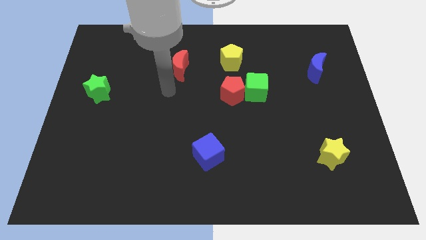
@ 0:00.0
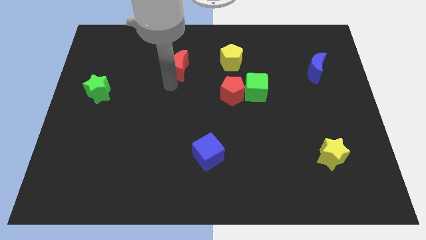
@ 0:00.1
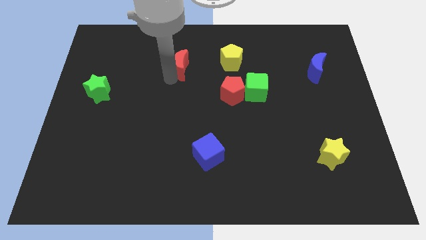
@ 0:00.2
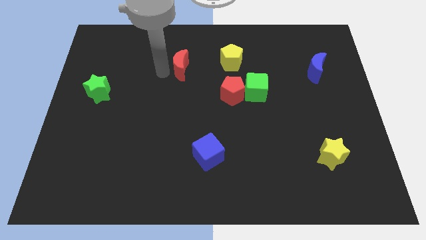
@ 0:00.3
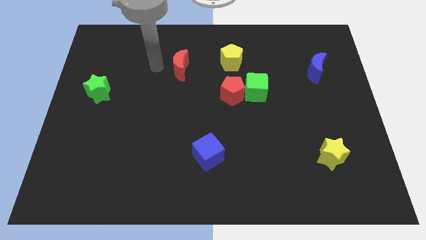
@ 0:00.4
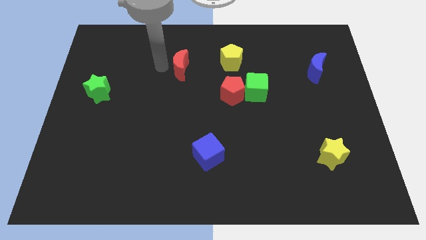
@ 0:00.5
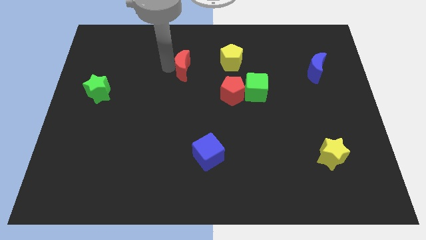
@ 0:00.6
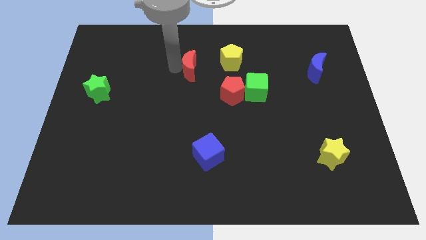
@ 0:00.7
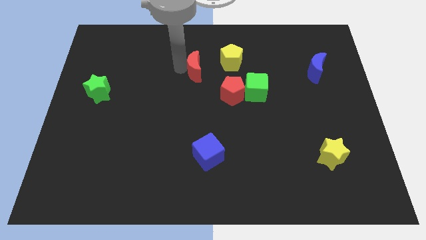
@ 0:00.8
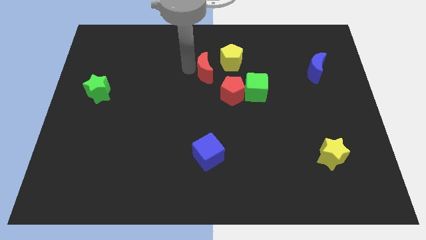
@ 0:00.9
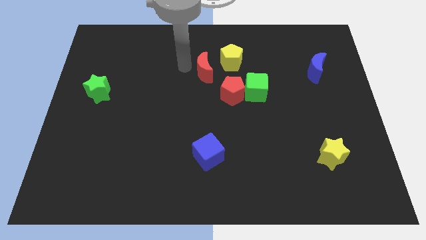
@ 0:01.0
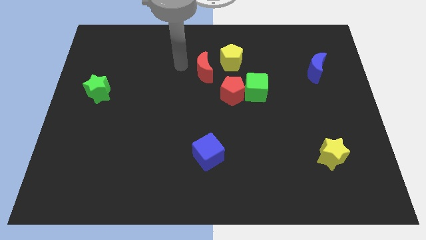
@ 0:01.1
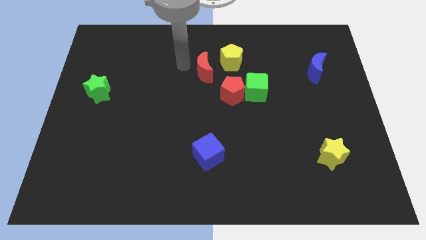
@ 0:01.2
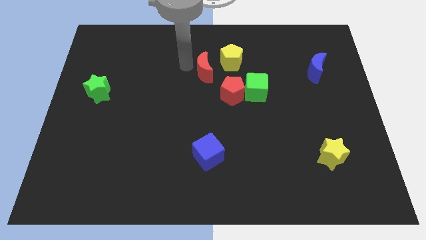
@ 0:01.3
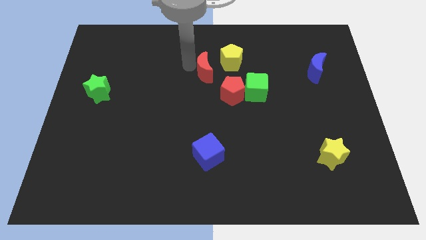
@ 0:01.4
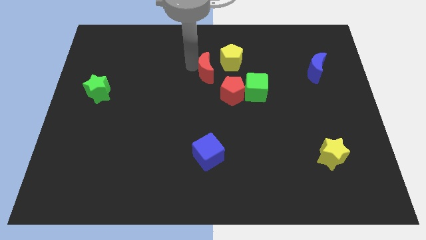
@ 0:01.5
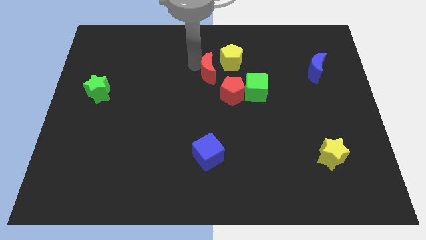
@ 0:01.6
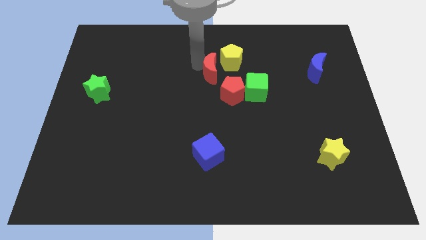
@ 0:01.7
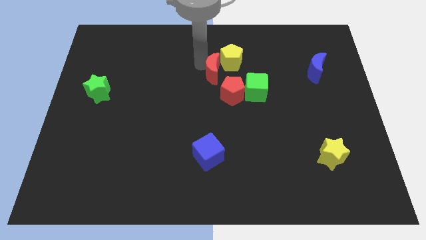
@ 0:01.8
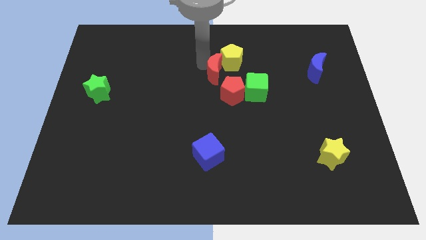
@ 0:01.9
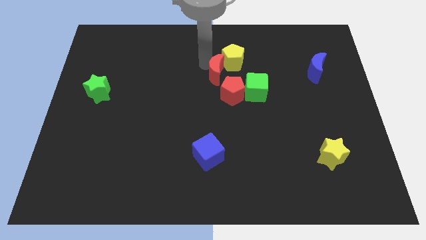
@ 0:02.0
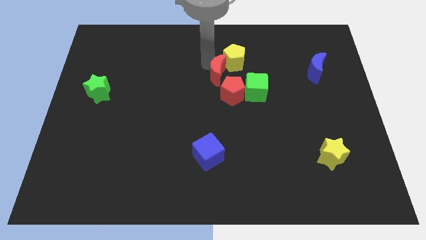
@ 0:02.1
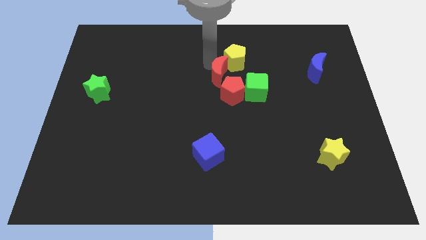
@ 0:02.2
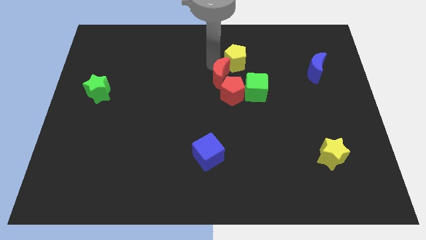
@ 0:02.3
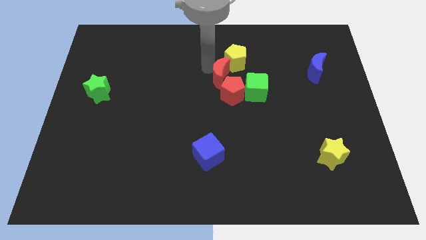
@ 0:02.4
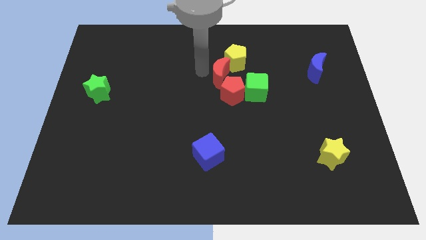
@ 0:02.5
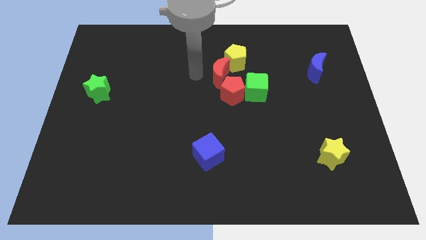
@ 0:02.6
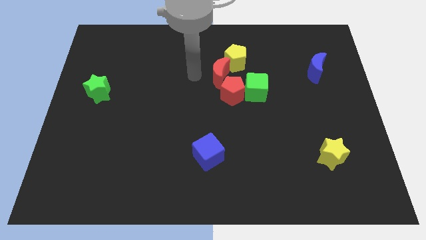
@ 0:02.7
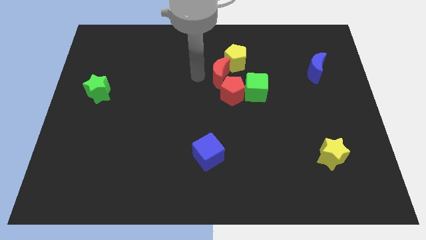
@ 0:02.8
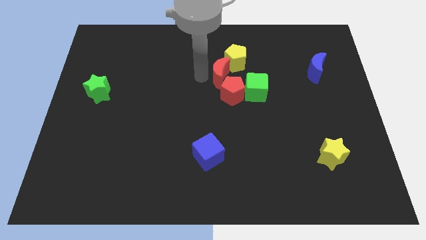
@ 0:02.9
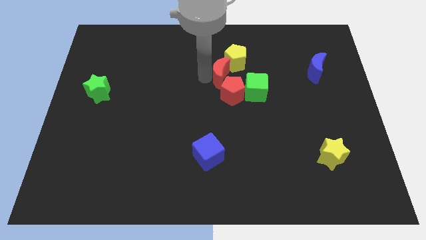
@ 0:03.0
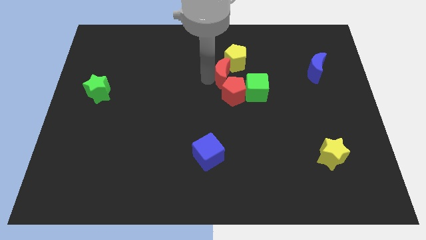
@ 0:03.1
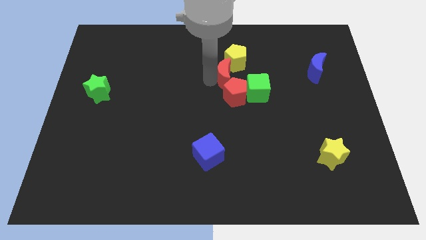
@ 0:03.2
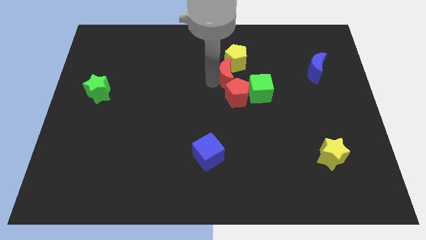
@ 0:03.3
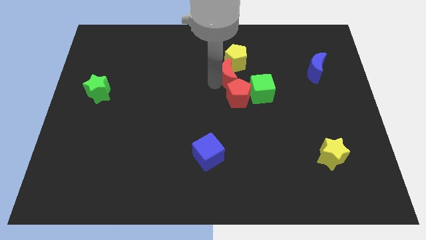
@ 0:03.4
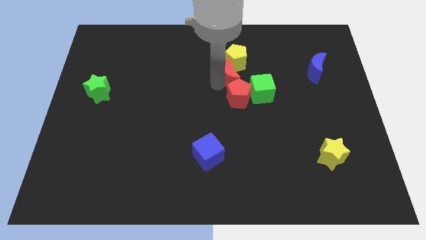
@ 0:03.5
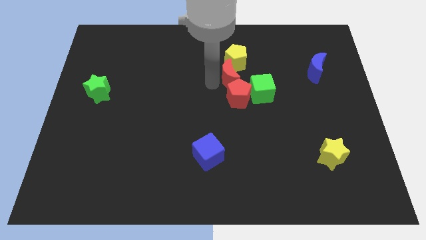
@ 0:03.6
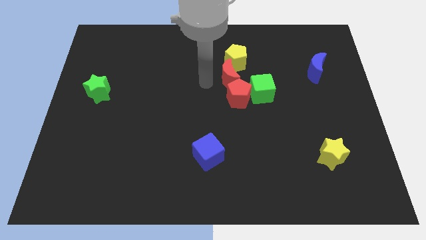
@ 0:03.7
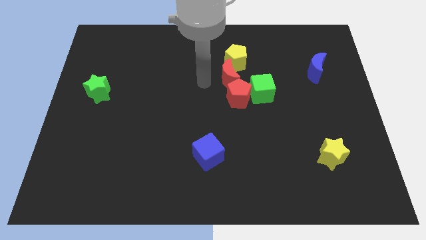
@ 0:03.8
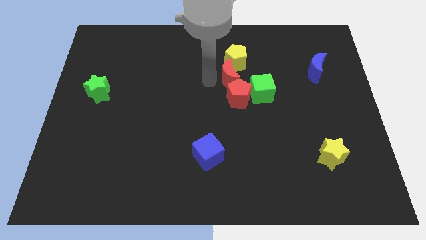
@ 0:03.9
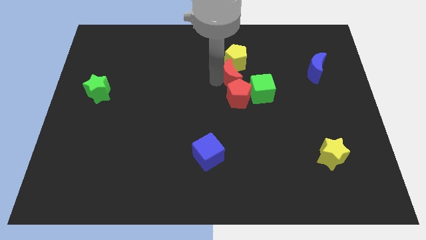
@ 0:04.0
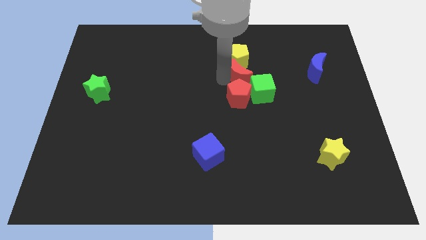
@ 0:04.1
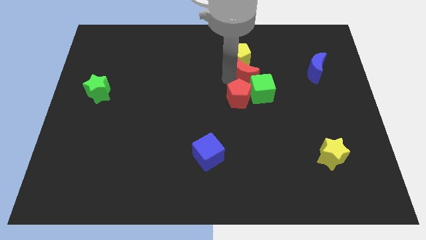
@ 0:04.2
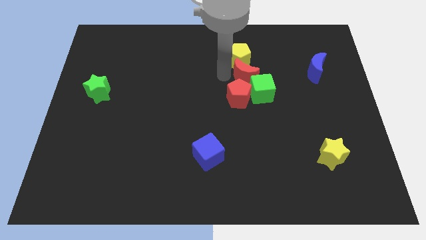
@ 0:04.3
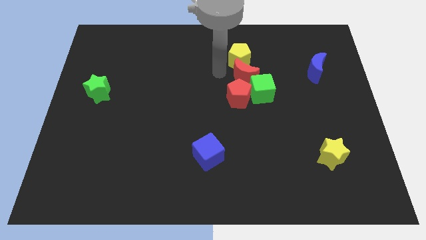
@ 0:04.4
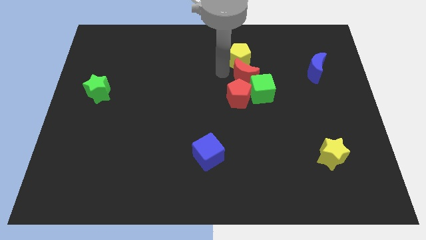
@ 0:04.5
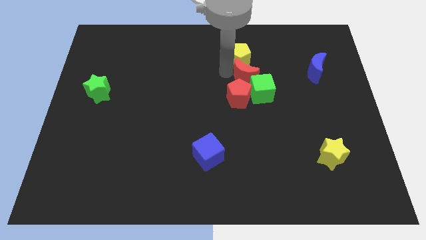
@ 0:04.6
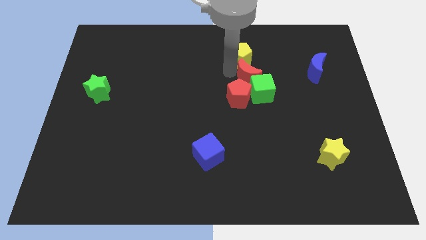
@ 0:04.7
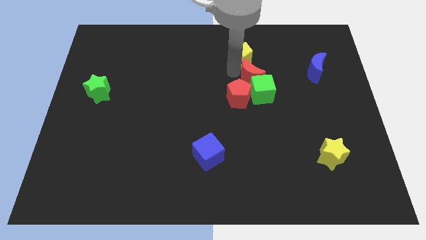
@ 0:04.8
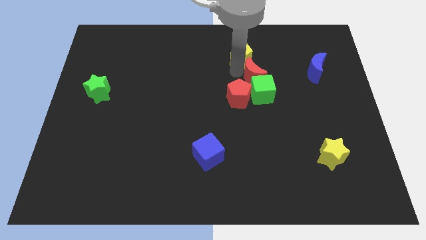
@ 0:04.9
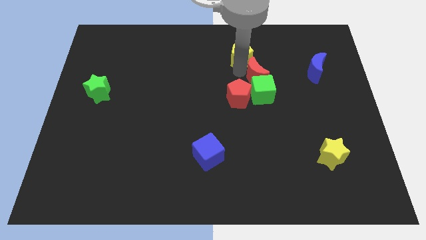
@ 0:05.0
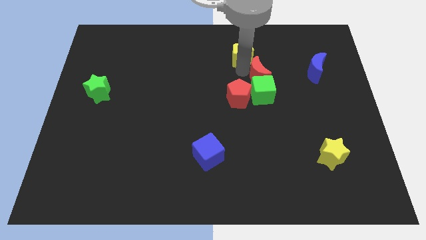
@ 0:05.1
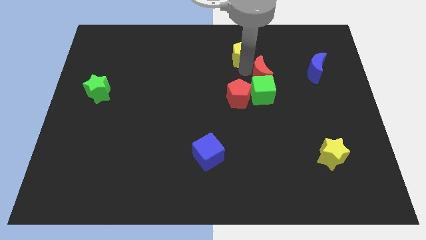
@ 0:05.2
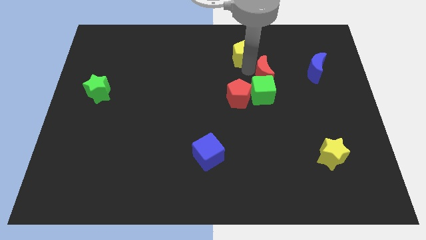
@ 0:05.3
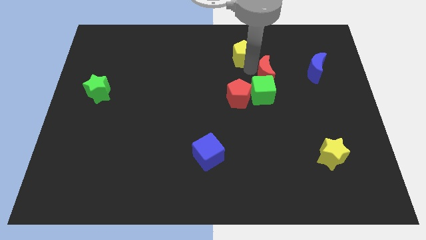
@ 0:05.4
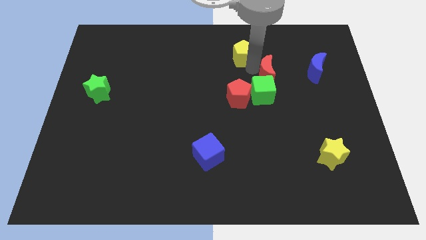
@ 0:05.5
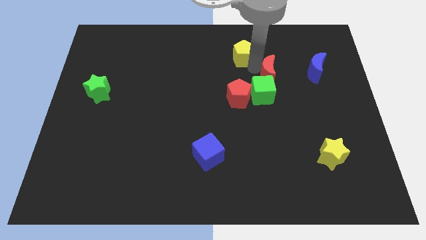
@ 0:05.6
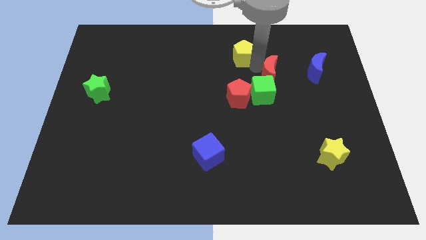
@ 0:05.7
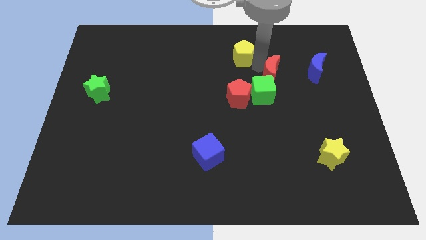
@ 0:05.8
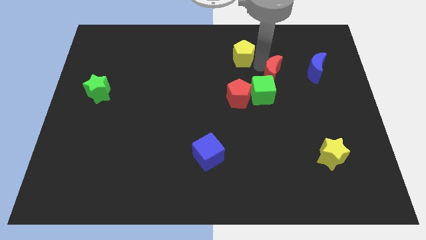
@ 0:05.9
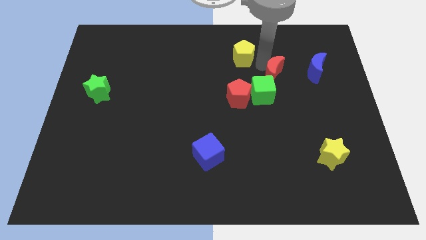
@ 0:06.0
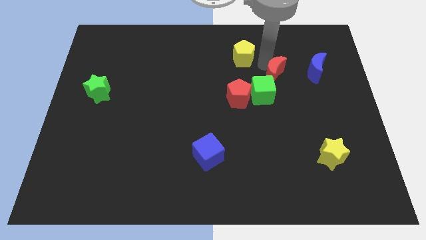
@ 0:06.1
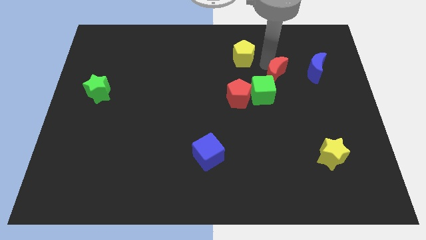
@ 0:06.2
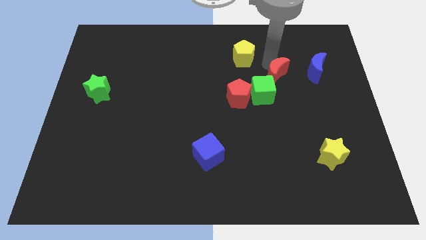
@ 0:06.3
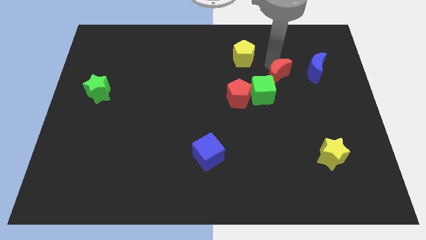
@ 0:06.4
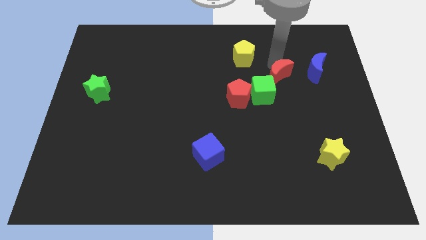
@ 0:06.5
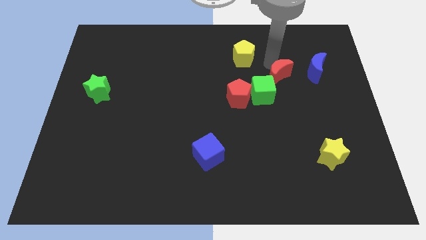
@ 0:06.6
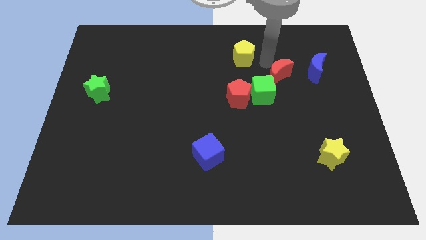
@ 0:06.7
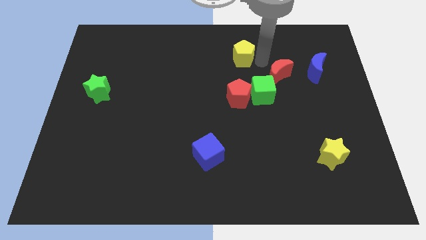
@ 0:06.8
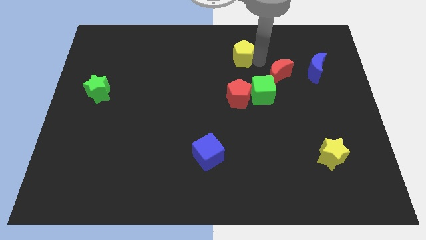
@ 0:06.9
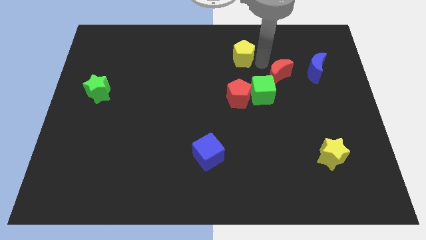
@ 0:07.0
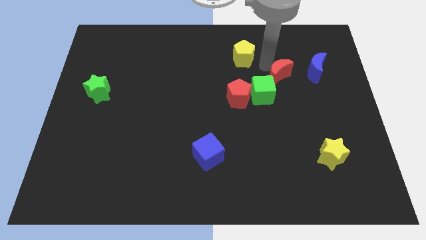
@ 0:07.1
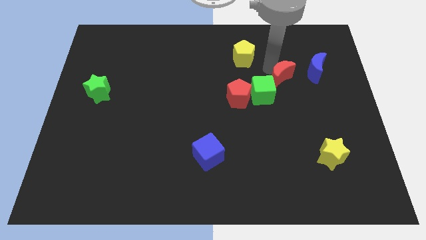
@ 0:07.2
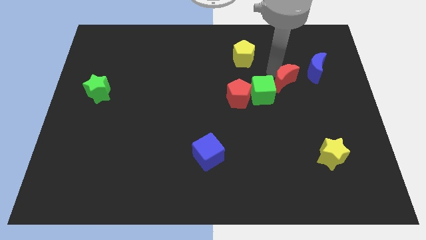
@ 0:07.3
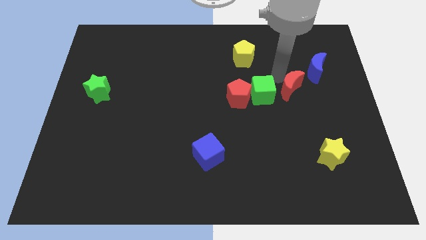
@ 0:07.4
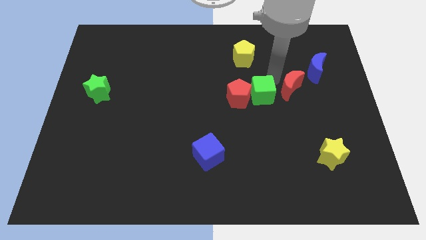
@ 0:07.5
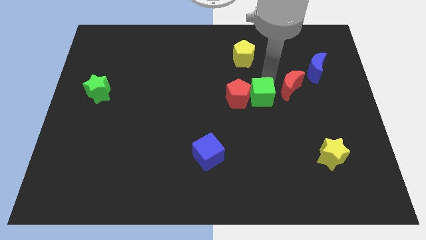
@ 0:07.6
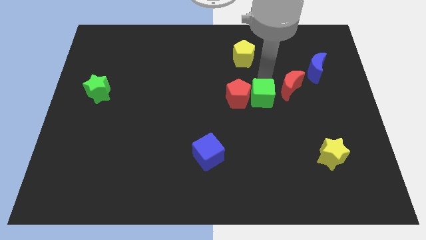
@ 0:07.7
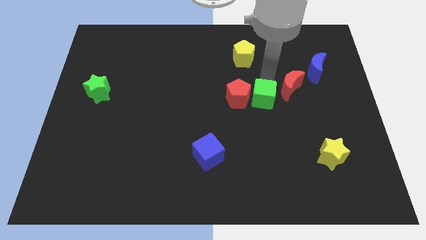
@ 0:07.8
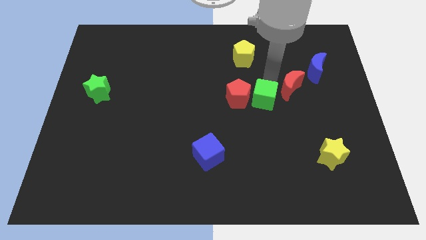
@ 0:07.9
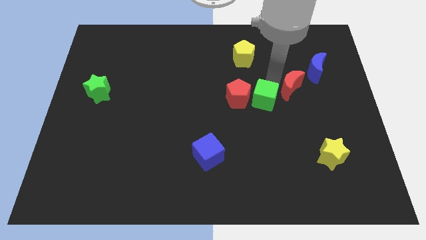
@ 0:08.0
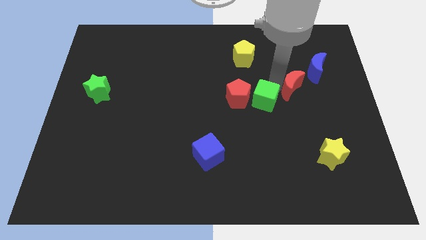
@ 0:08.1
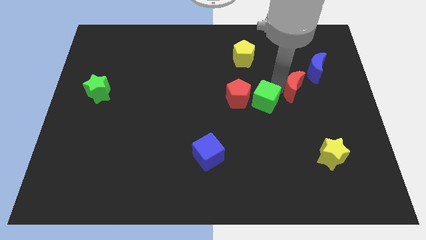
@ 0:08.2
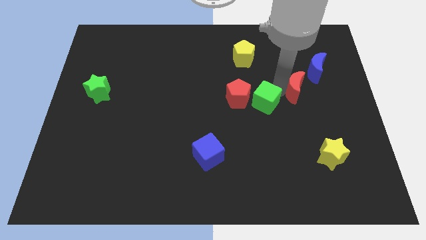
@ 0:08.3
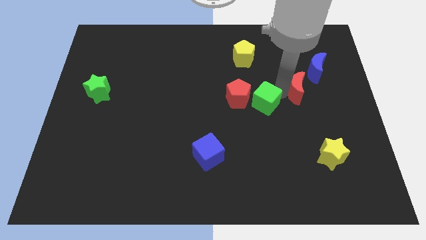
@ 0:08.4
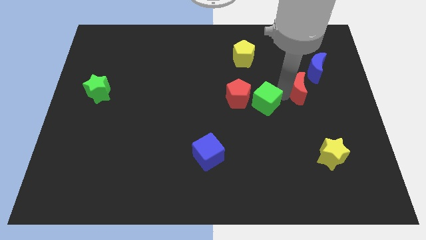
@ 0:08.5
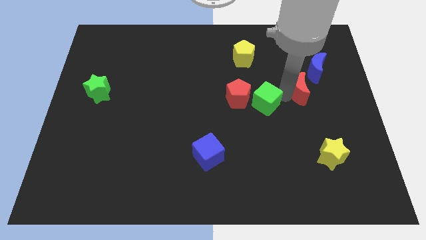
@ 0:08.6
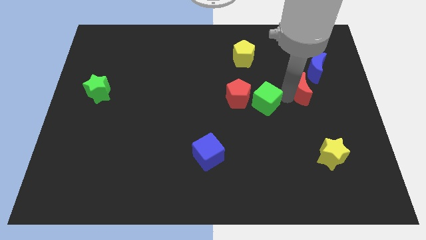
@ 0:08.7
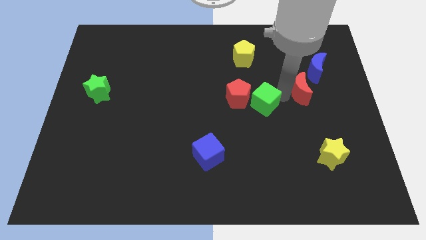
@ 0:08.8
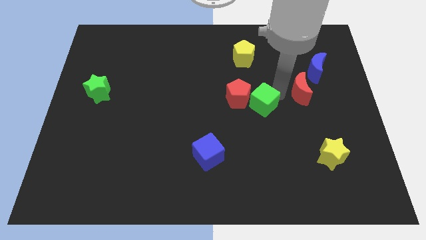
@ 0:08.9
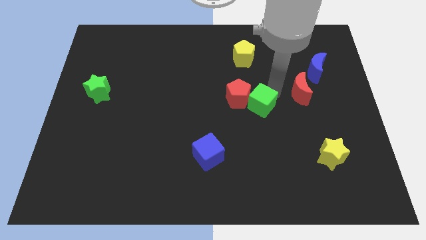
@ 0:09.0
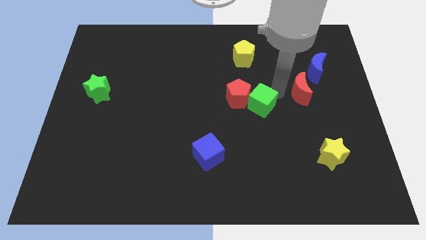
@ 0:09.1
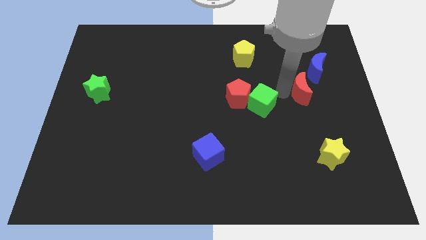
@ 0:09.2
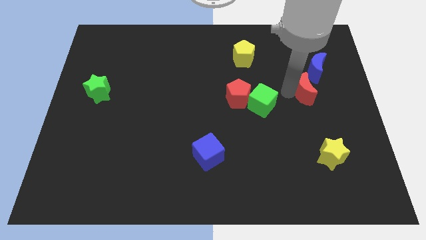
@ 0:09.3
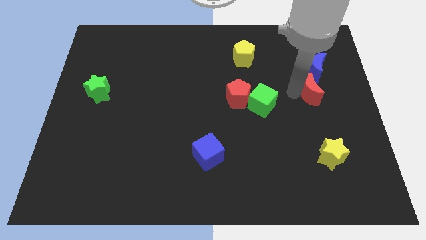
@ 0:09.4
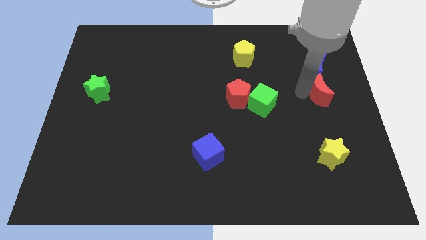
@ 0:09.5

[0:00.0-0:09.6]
push the red moon to the right side
